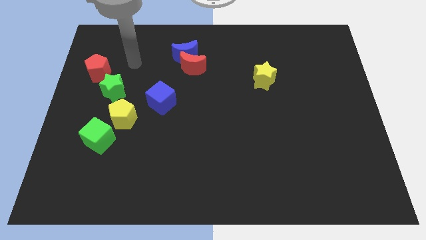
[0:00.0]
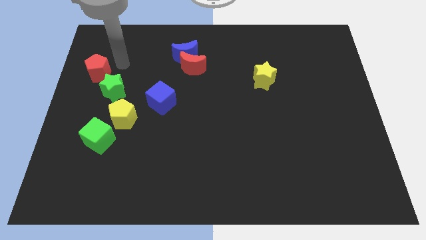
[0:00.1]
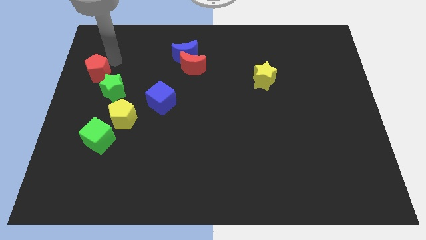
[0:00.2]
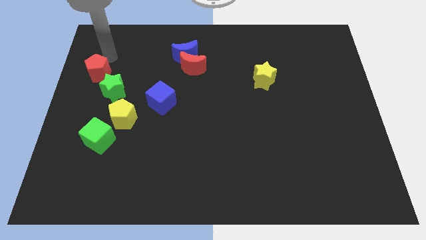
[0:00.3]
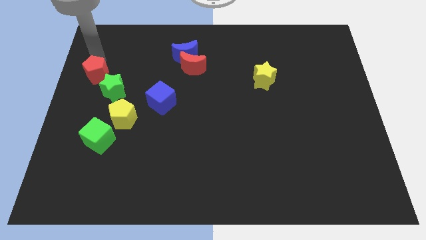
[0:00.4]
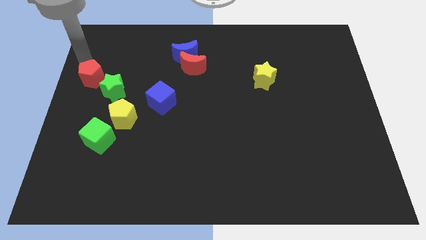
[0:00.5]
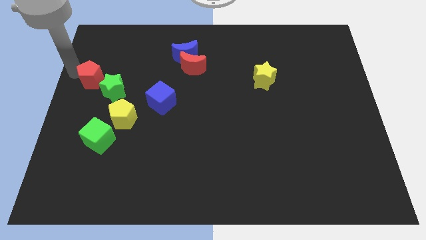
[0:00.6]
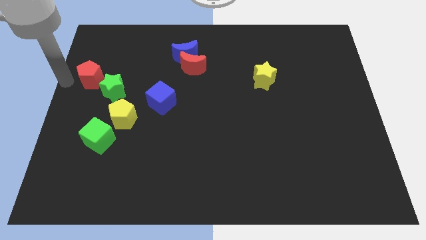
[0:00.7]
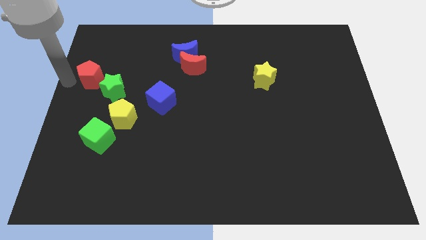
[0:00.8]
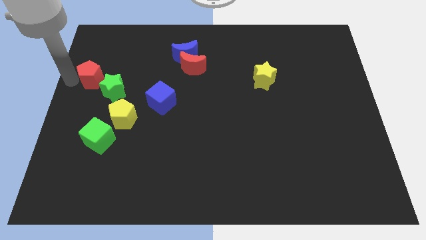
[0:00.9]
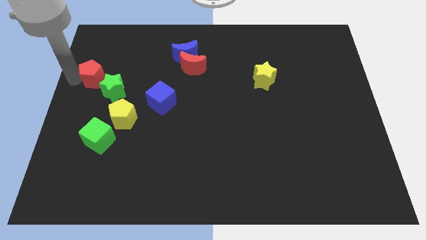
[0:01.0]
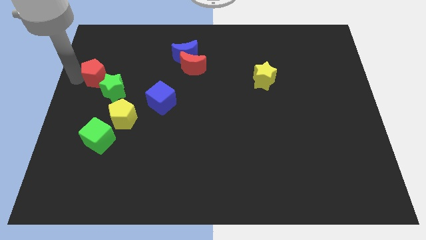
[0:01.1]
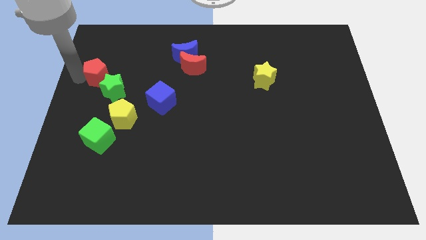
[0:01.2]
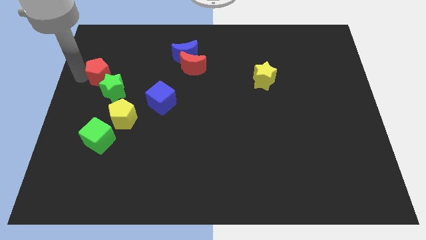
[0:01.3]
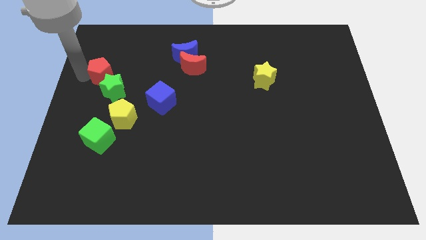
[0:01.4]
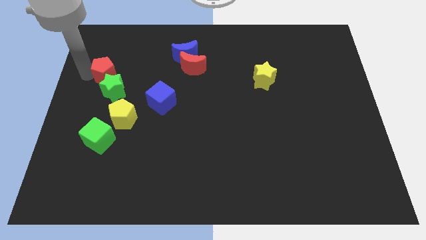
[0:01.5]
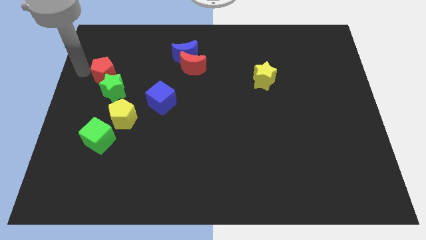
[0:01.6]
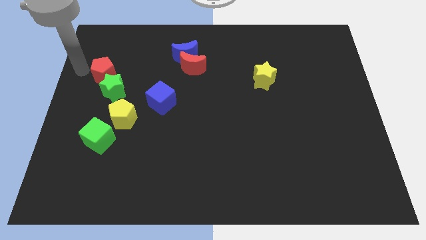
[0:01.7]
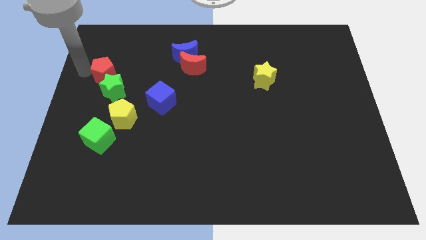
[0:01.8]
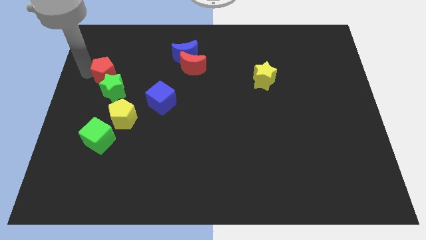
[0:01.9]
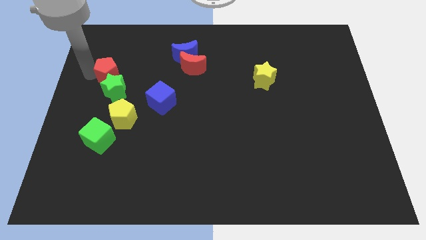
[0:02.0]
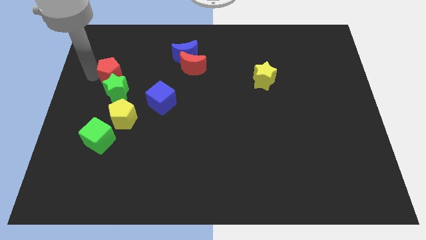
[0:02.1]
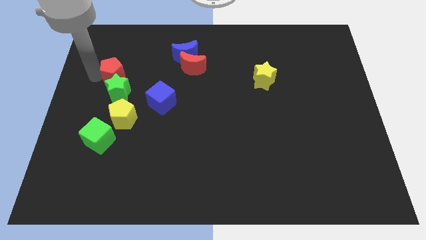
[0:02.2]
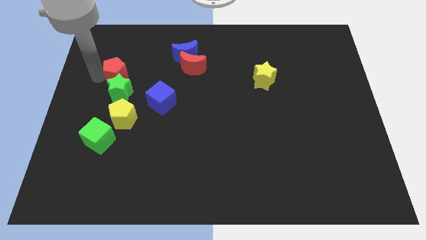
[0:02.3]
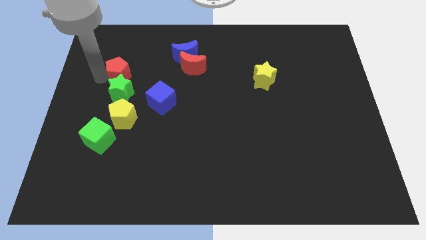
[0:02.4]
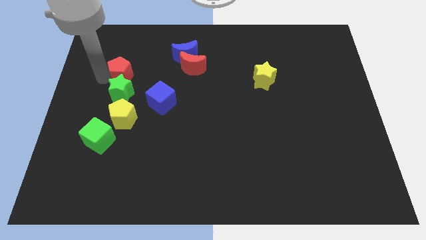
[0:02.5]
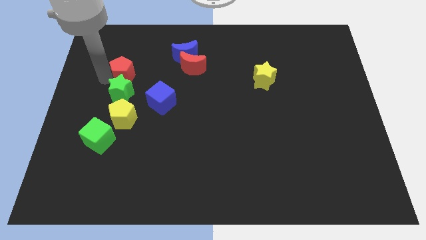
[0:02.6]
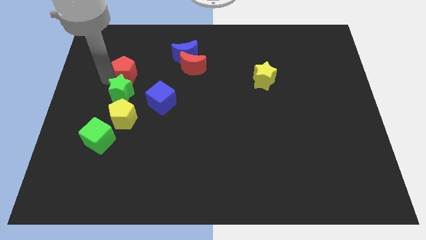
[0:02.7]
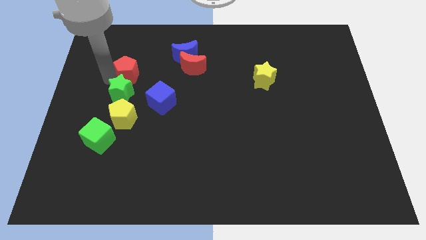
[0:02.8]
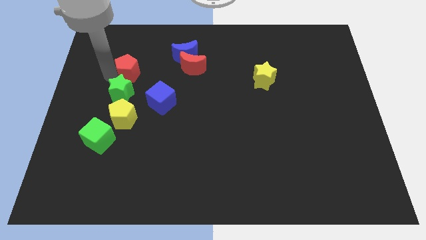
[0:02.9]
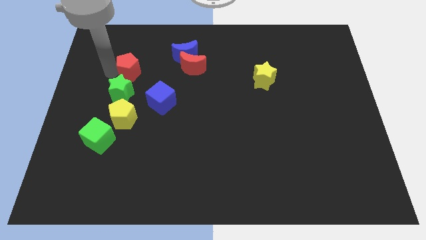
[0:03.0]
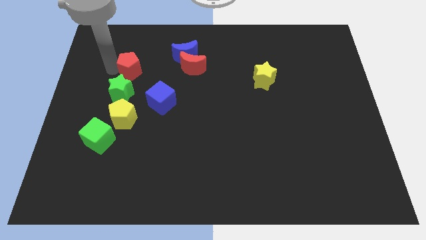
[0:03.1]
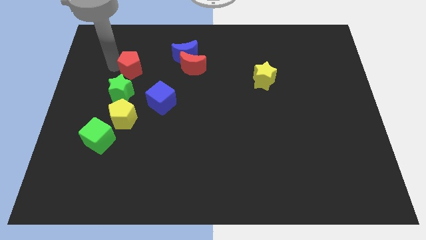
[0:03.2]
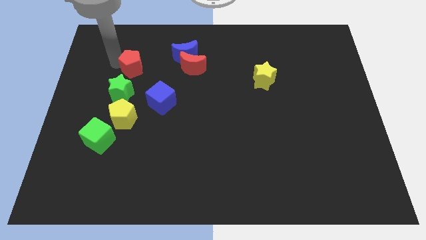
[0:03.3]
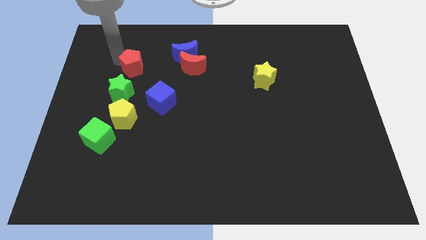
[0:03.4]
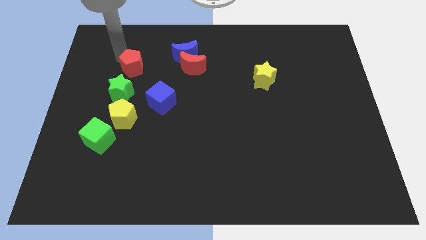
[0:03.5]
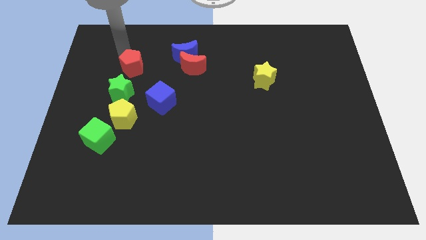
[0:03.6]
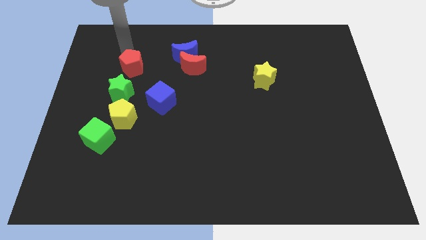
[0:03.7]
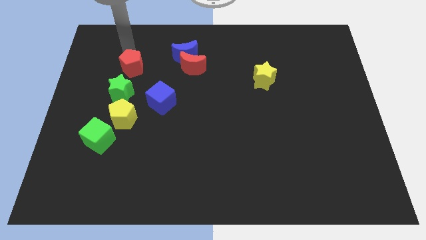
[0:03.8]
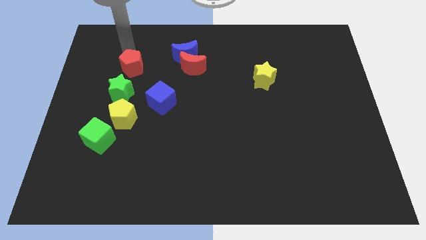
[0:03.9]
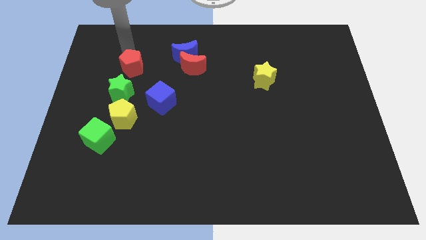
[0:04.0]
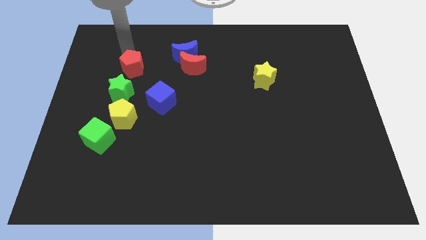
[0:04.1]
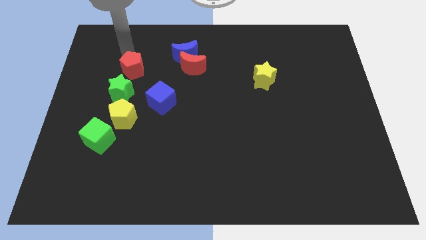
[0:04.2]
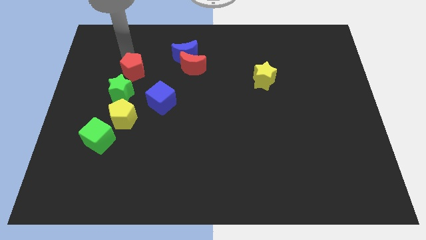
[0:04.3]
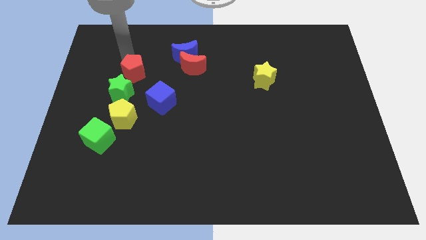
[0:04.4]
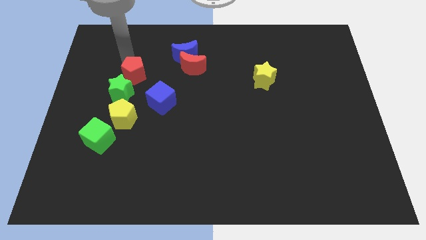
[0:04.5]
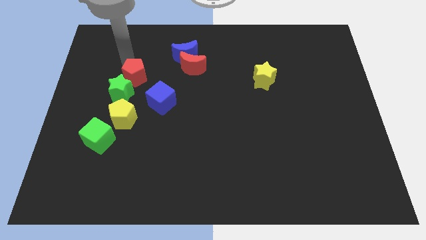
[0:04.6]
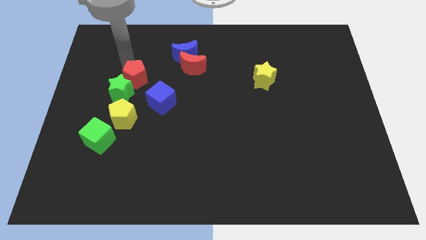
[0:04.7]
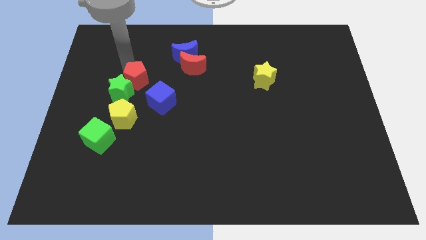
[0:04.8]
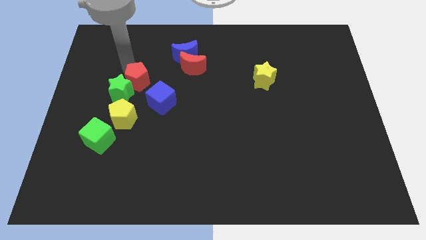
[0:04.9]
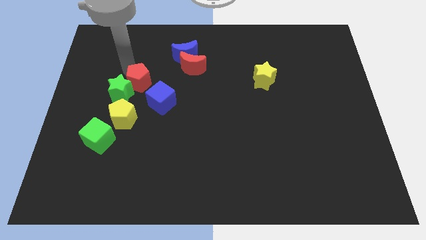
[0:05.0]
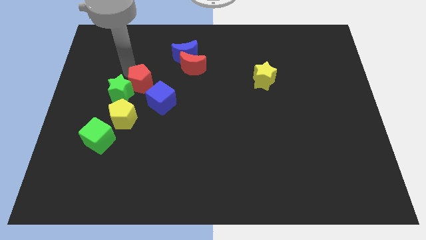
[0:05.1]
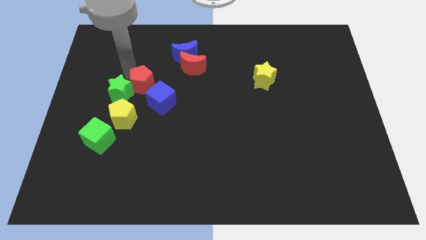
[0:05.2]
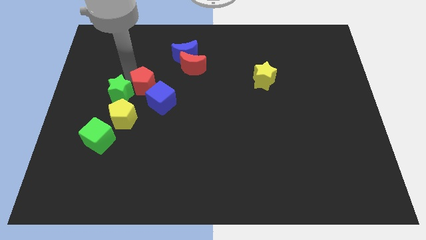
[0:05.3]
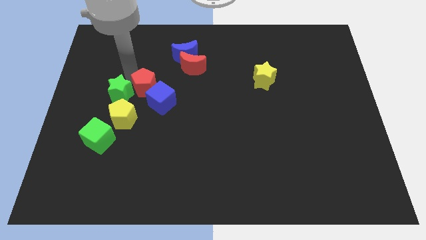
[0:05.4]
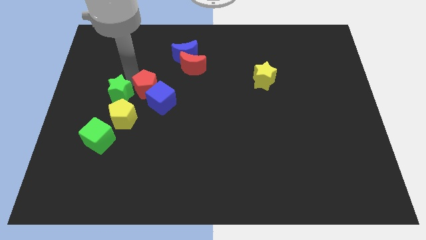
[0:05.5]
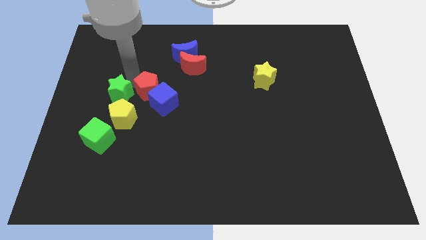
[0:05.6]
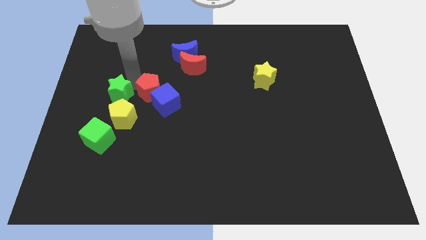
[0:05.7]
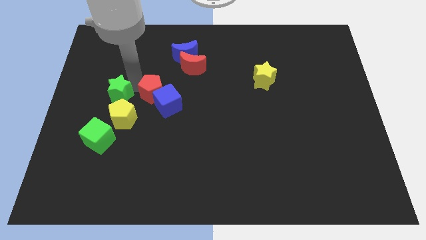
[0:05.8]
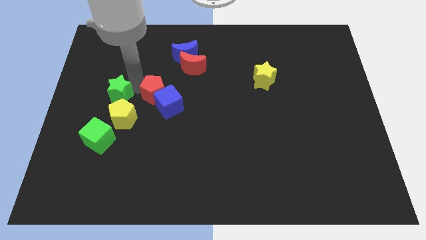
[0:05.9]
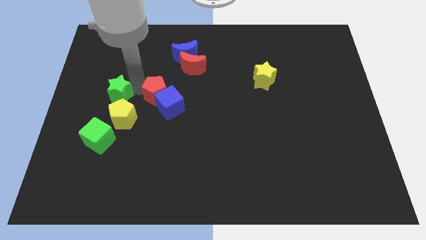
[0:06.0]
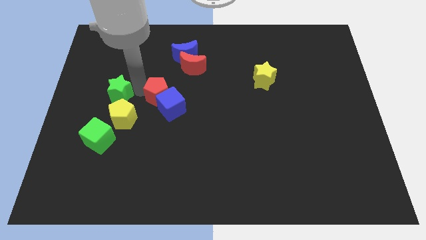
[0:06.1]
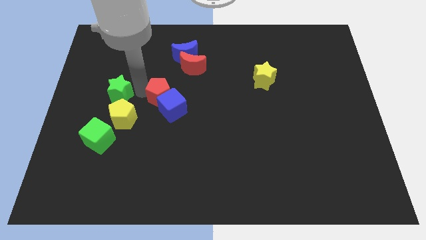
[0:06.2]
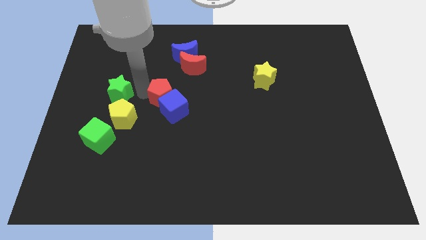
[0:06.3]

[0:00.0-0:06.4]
move the red pentagon to the middle of the board
